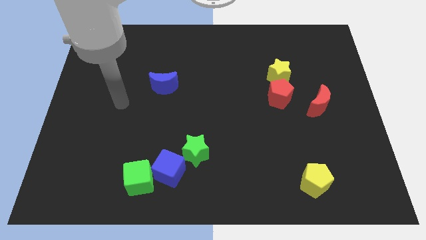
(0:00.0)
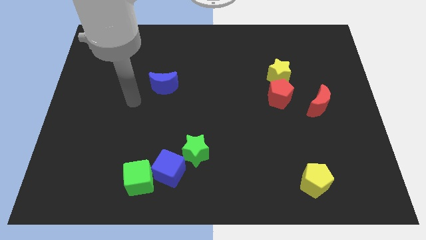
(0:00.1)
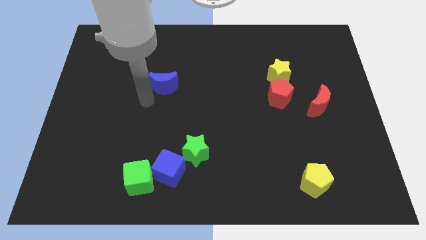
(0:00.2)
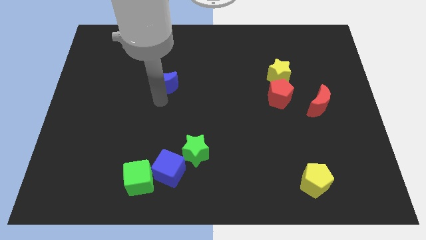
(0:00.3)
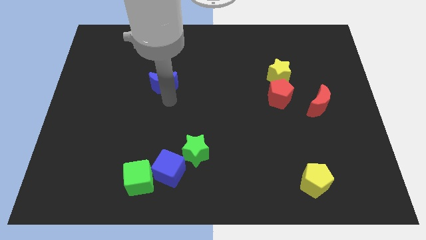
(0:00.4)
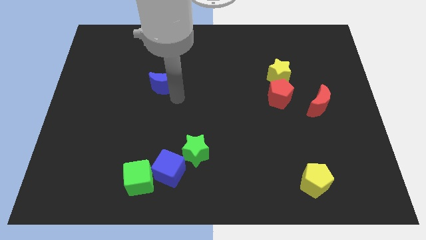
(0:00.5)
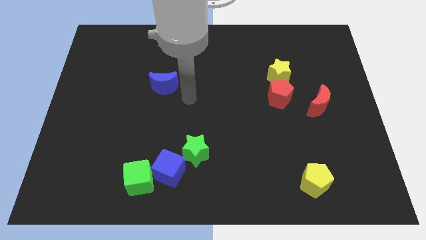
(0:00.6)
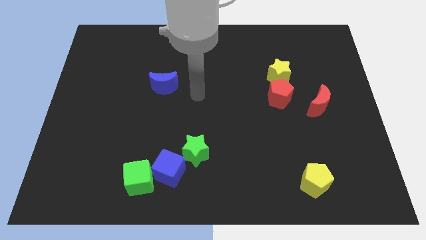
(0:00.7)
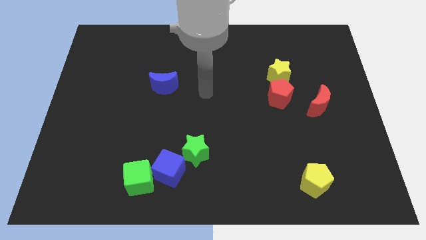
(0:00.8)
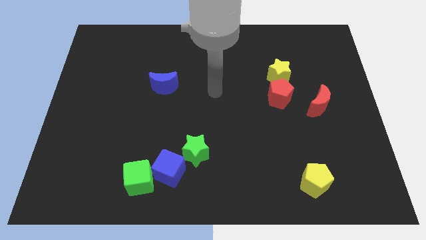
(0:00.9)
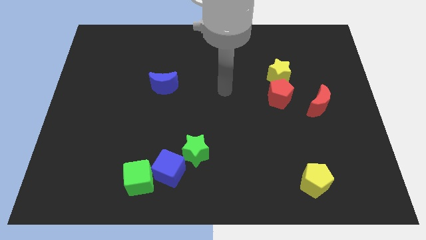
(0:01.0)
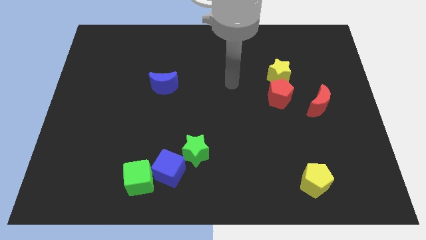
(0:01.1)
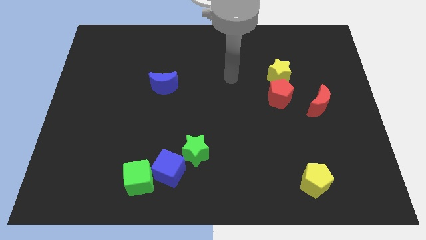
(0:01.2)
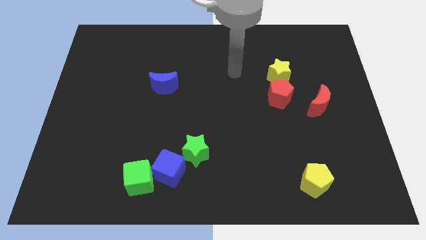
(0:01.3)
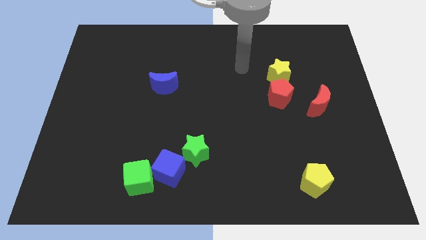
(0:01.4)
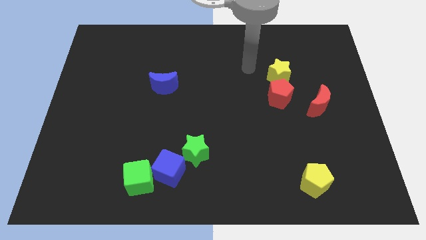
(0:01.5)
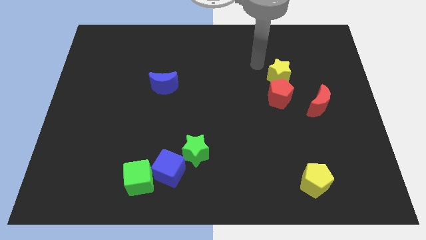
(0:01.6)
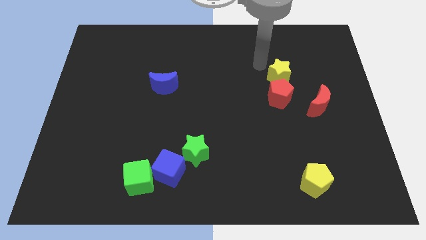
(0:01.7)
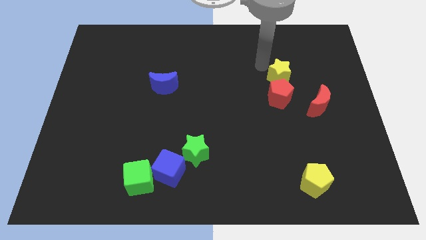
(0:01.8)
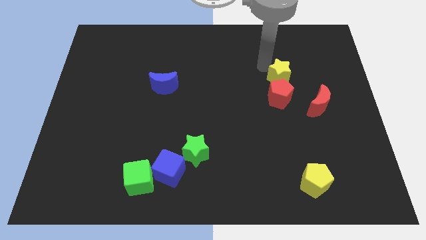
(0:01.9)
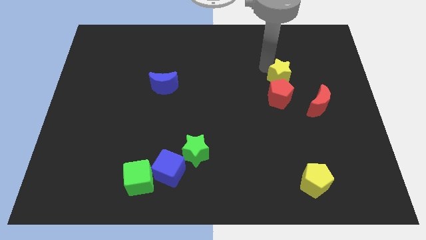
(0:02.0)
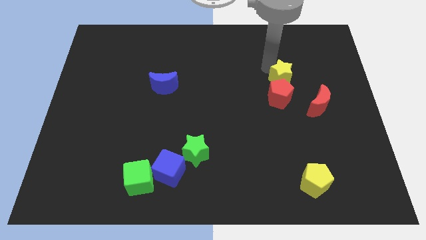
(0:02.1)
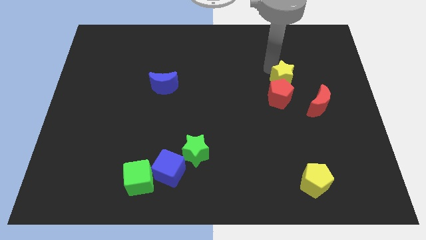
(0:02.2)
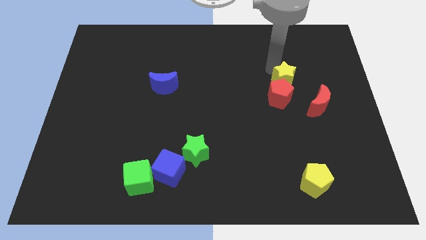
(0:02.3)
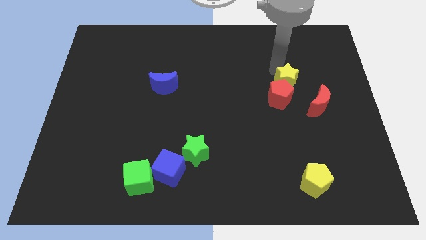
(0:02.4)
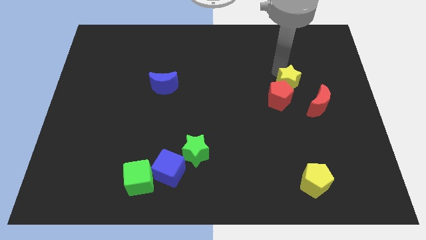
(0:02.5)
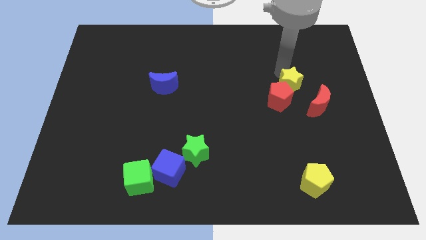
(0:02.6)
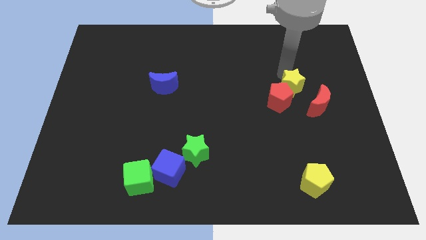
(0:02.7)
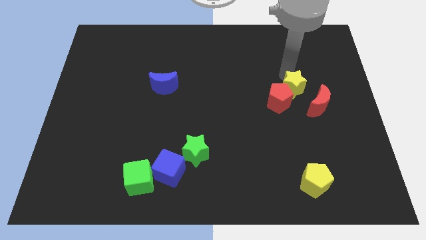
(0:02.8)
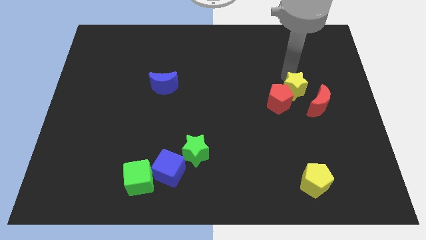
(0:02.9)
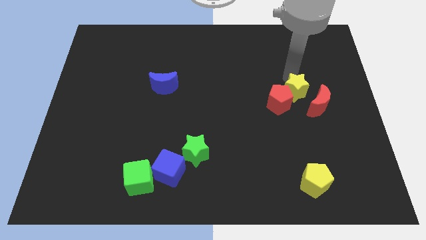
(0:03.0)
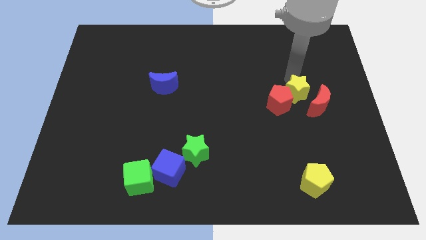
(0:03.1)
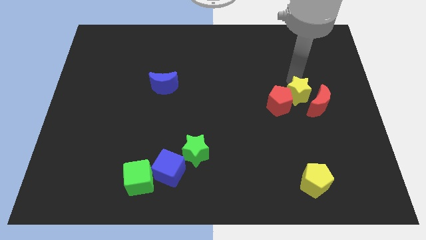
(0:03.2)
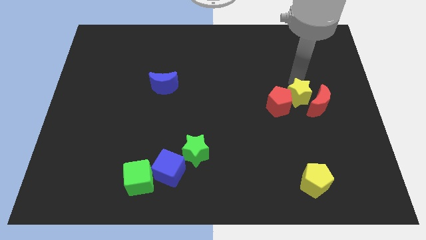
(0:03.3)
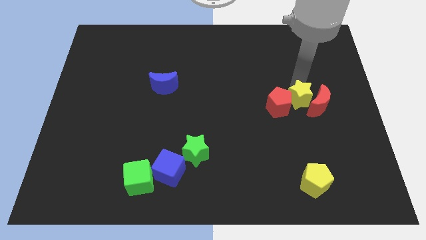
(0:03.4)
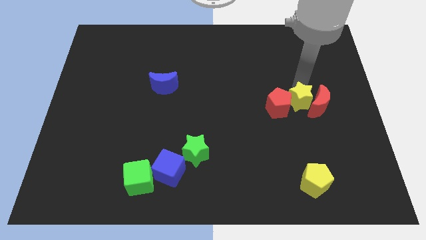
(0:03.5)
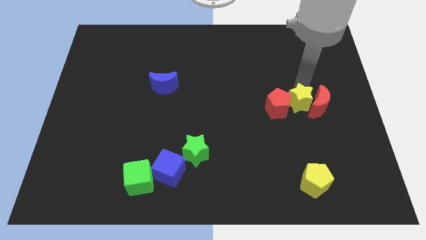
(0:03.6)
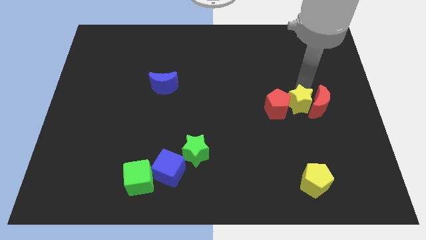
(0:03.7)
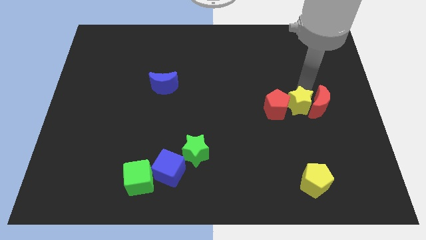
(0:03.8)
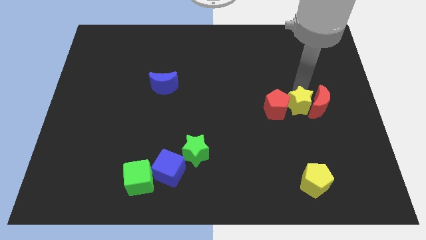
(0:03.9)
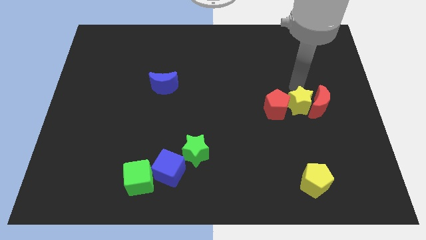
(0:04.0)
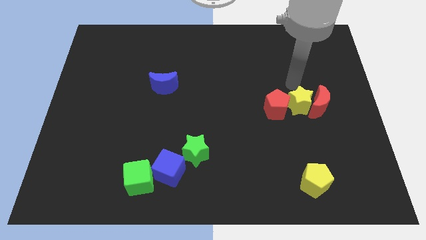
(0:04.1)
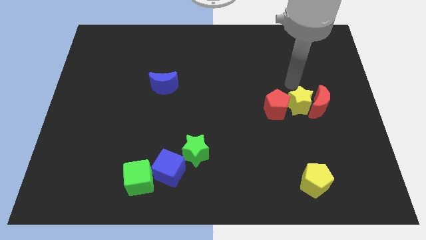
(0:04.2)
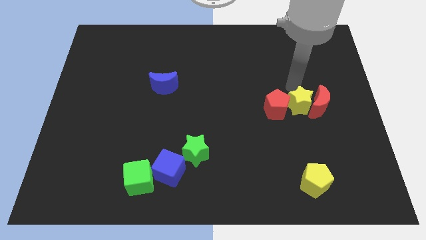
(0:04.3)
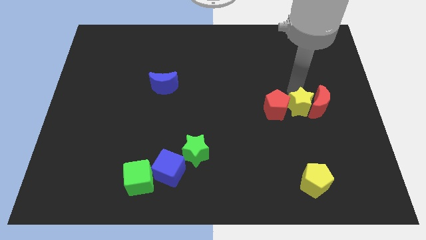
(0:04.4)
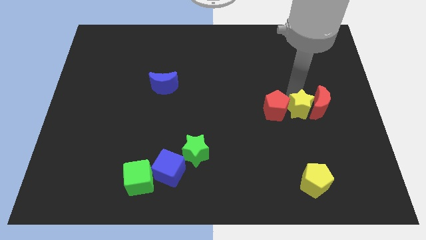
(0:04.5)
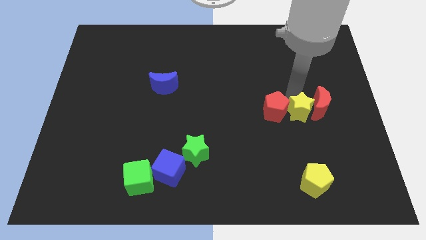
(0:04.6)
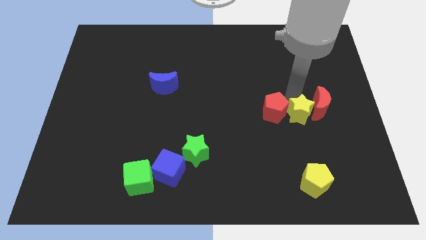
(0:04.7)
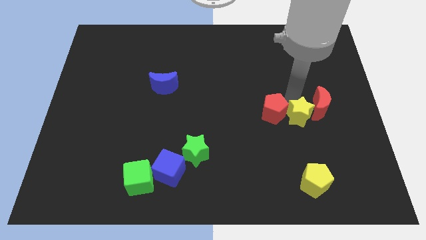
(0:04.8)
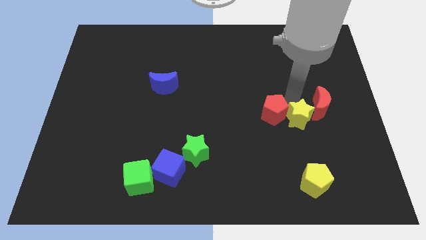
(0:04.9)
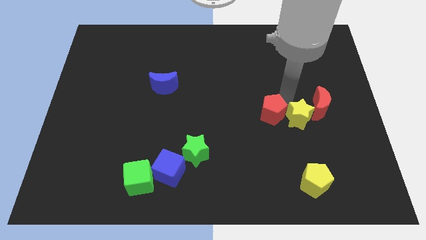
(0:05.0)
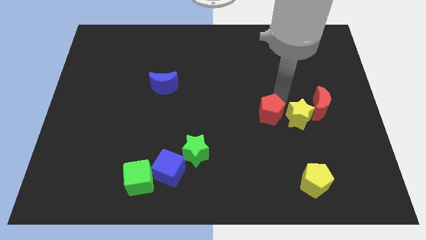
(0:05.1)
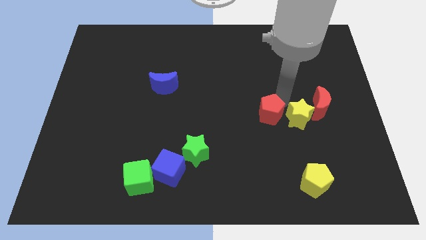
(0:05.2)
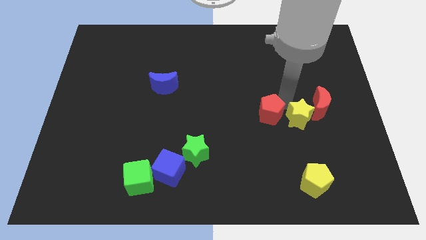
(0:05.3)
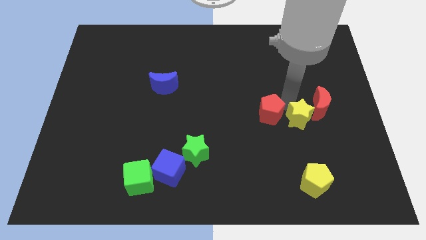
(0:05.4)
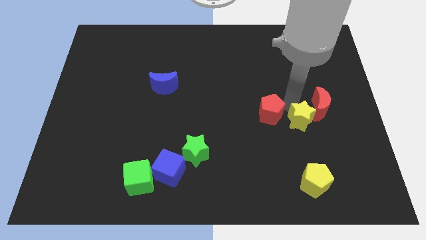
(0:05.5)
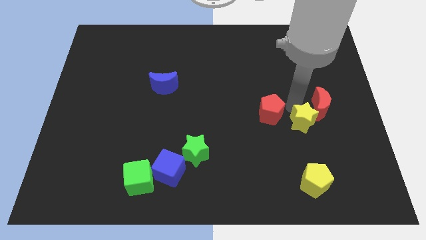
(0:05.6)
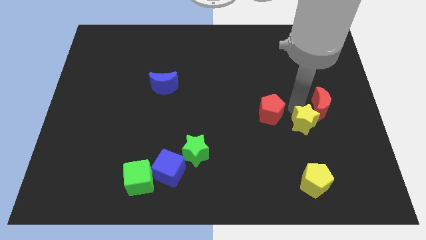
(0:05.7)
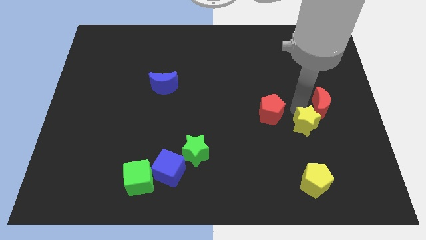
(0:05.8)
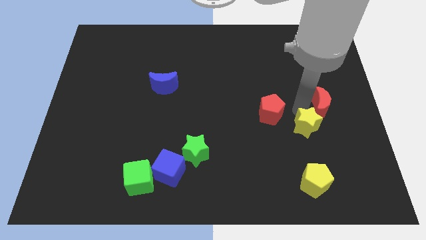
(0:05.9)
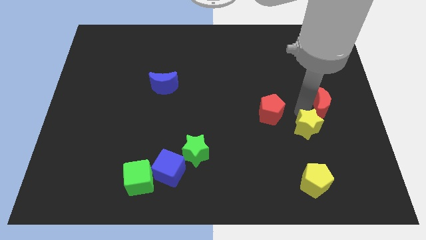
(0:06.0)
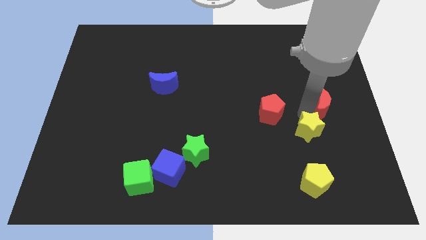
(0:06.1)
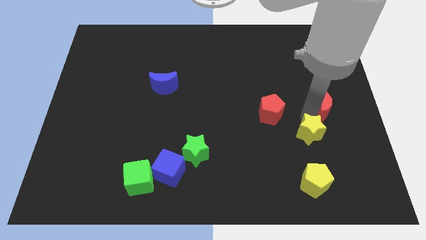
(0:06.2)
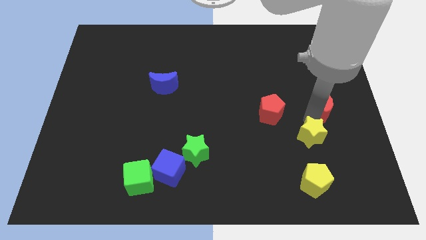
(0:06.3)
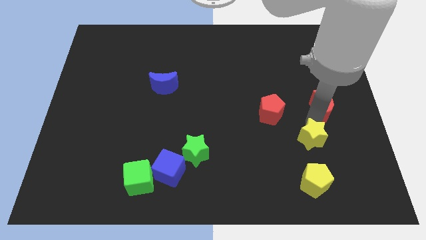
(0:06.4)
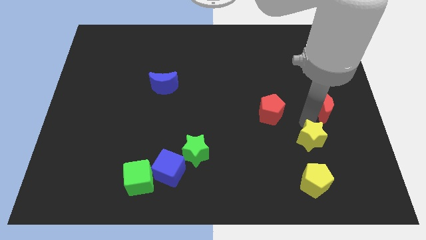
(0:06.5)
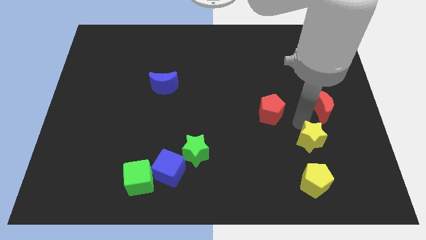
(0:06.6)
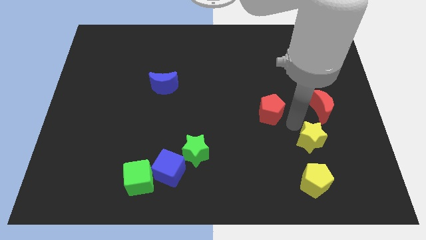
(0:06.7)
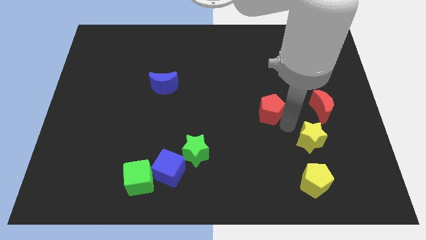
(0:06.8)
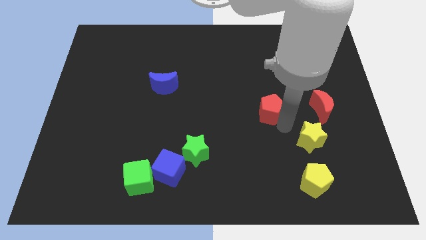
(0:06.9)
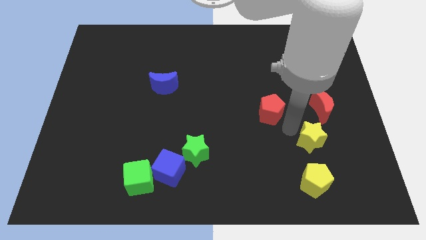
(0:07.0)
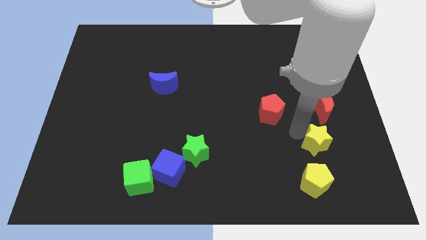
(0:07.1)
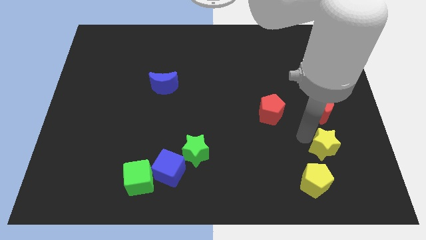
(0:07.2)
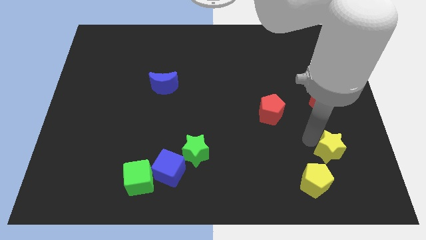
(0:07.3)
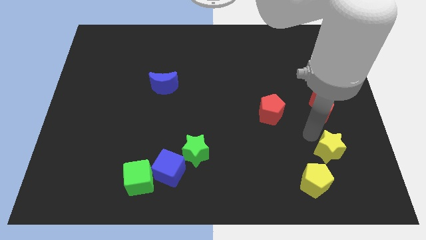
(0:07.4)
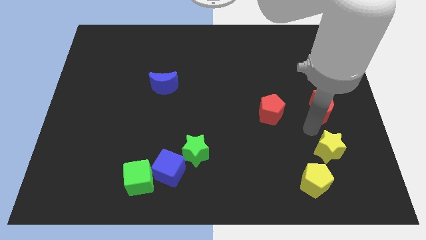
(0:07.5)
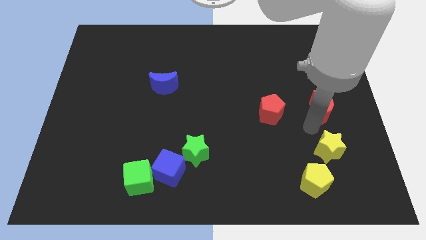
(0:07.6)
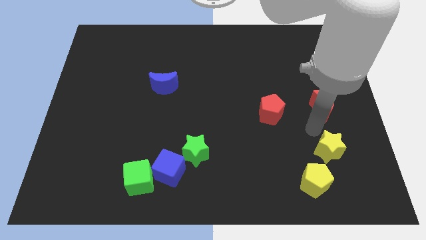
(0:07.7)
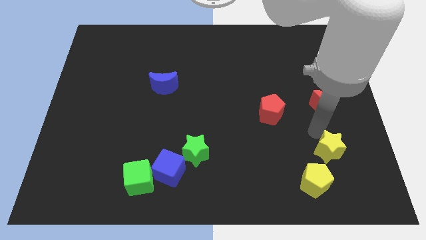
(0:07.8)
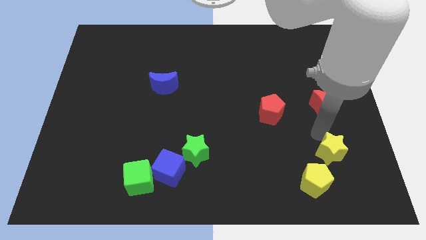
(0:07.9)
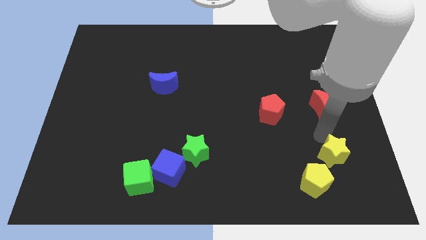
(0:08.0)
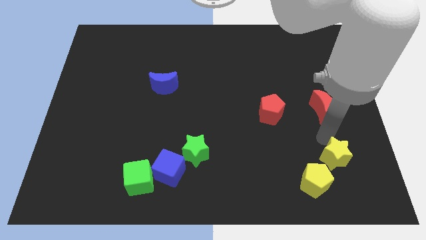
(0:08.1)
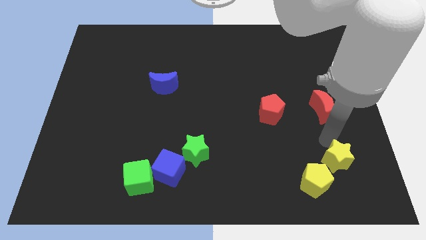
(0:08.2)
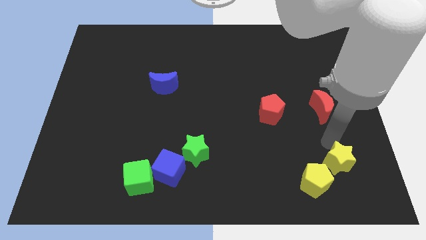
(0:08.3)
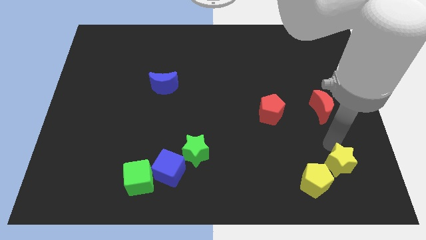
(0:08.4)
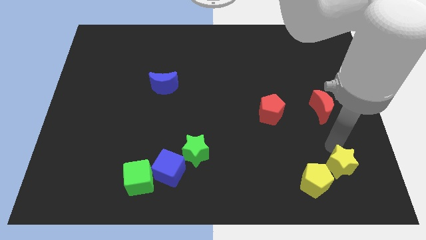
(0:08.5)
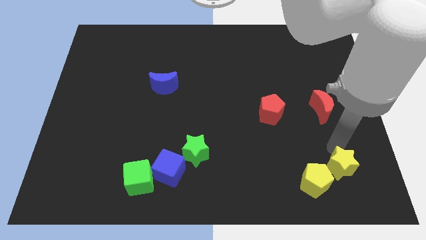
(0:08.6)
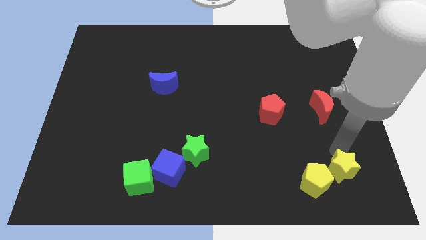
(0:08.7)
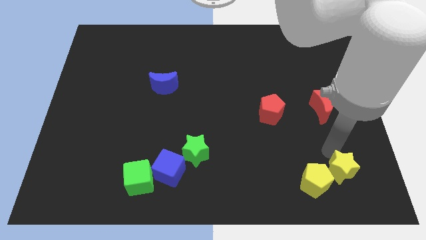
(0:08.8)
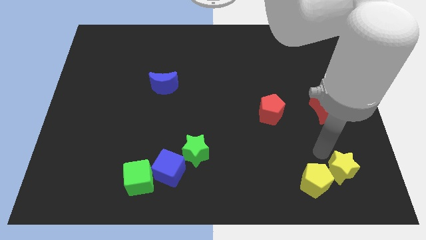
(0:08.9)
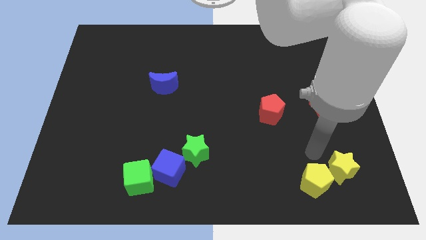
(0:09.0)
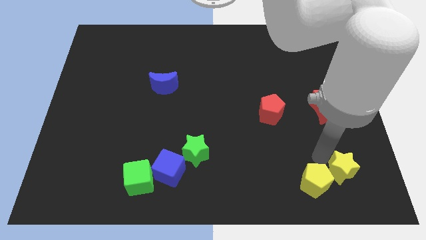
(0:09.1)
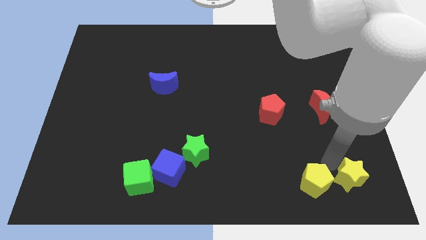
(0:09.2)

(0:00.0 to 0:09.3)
slide the yellow star to the bottom right of the board
